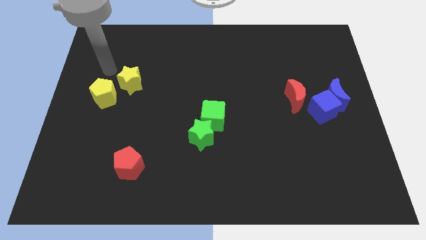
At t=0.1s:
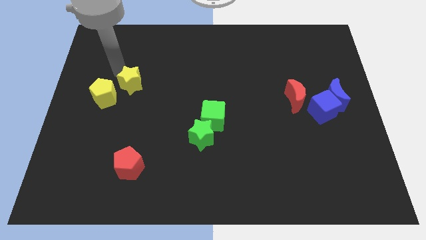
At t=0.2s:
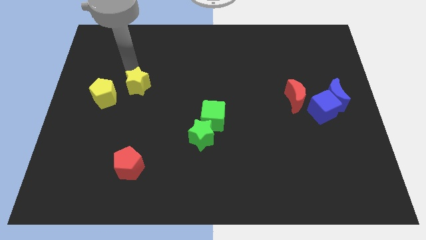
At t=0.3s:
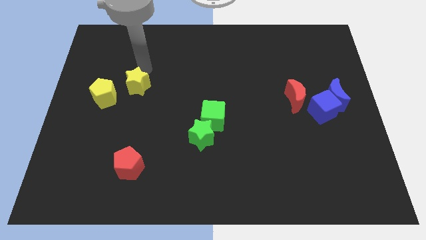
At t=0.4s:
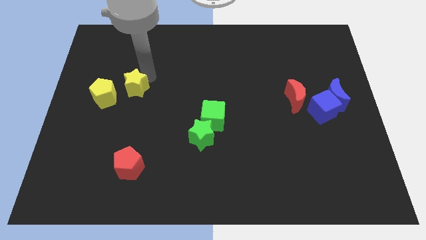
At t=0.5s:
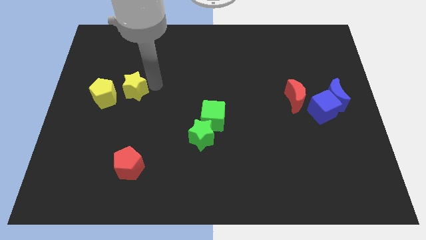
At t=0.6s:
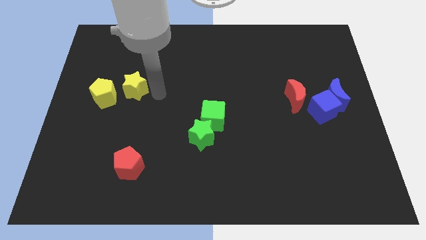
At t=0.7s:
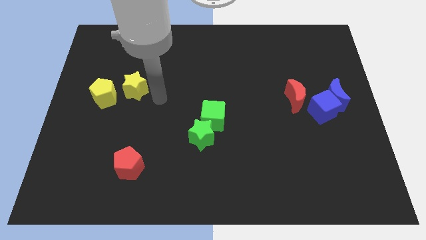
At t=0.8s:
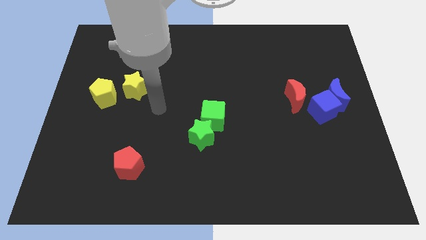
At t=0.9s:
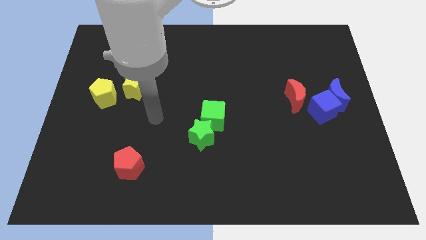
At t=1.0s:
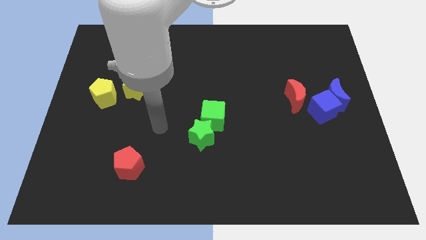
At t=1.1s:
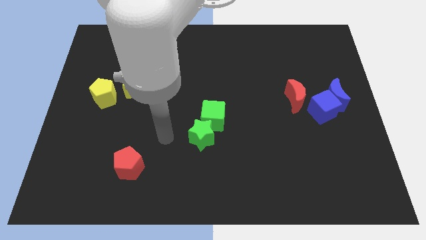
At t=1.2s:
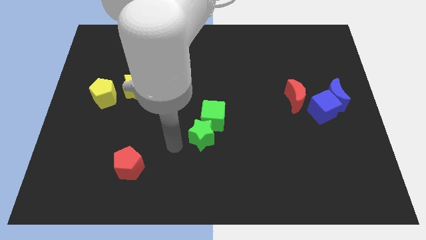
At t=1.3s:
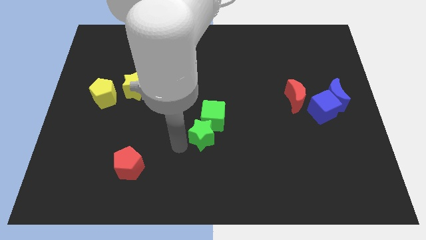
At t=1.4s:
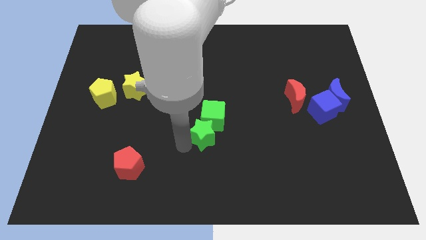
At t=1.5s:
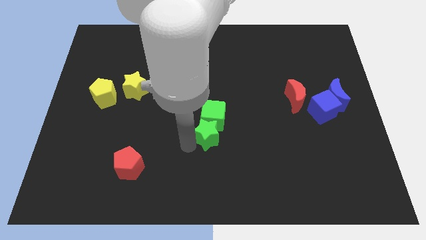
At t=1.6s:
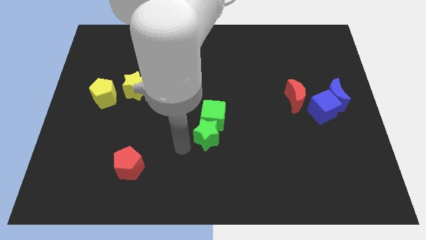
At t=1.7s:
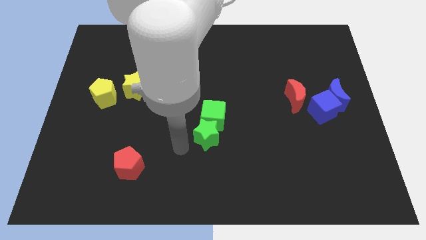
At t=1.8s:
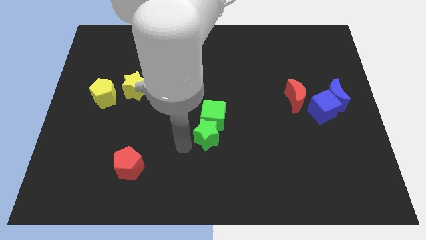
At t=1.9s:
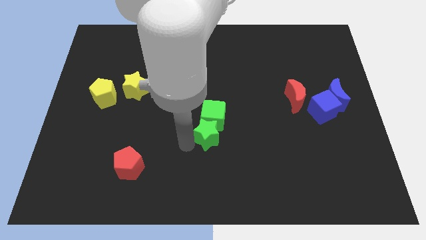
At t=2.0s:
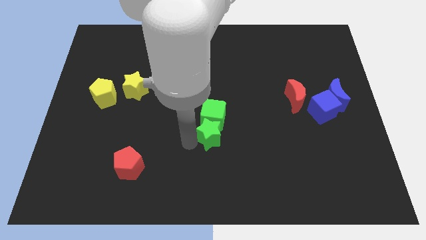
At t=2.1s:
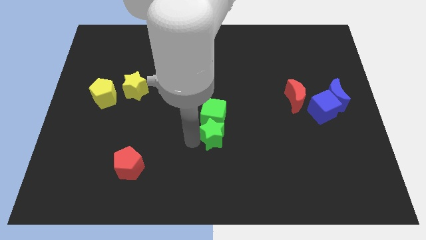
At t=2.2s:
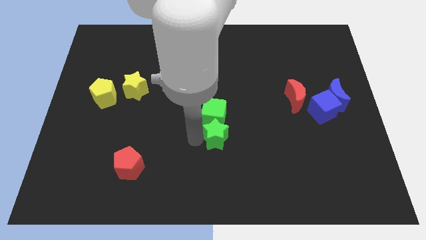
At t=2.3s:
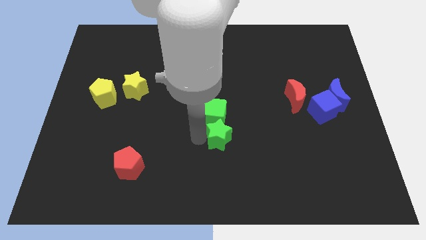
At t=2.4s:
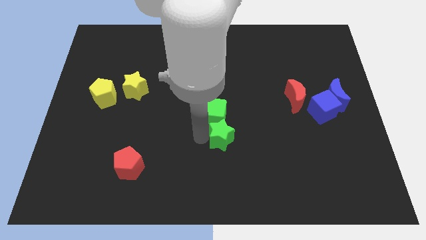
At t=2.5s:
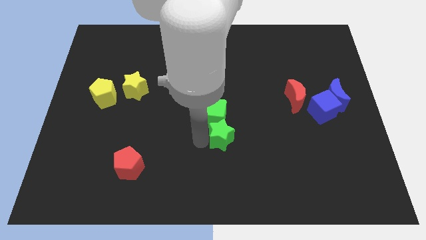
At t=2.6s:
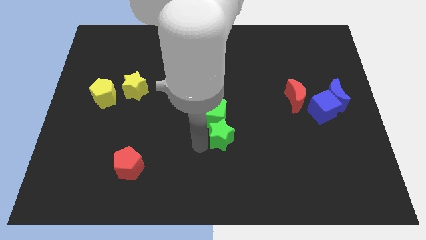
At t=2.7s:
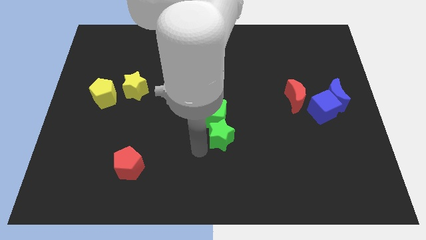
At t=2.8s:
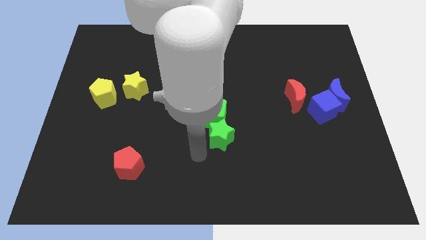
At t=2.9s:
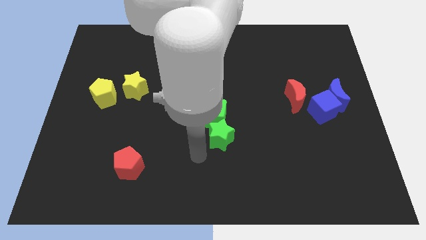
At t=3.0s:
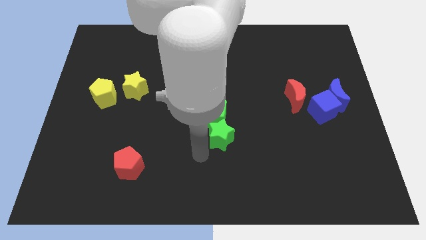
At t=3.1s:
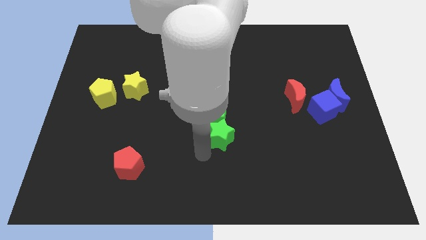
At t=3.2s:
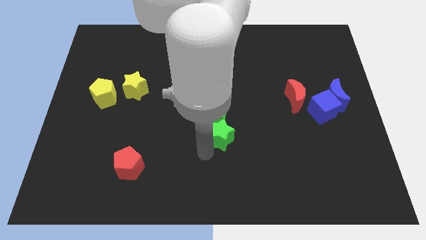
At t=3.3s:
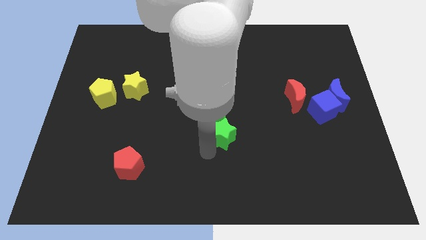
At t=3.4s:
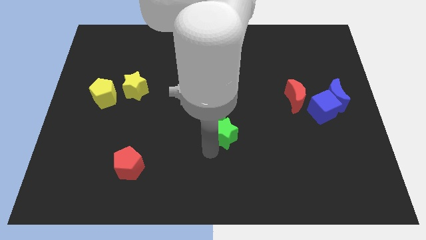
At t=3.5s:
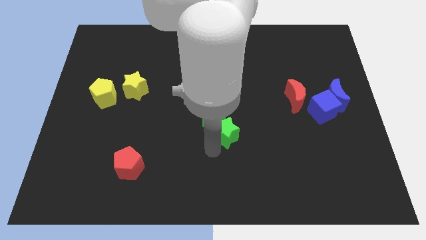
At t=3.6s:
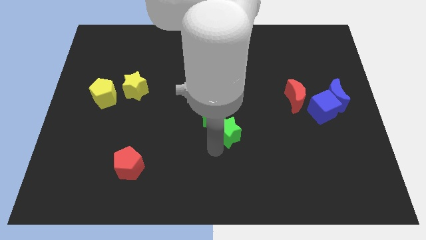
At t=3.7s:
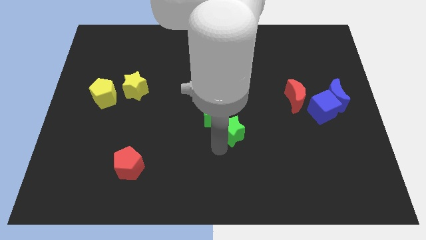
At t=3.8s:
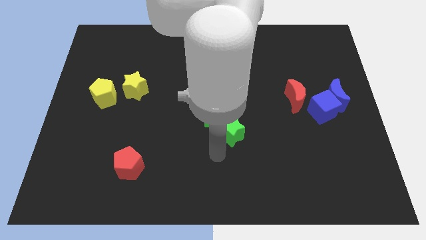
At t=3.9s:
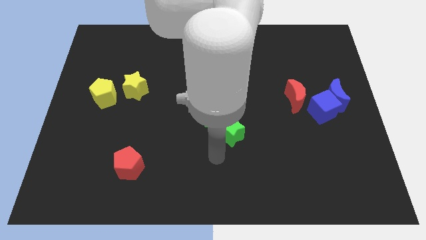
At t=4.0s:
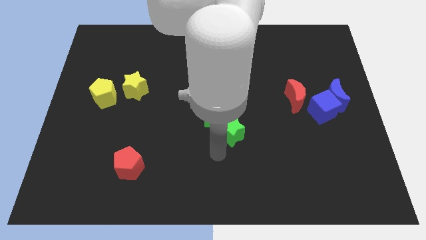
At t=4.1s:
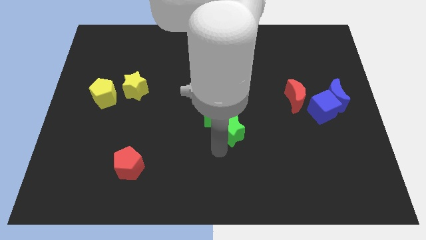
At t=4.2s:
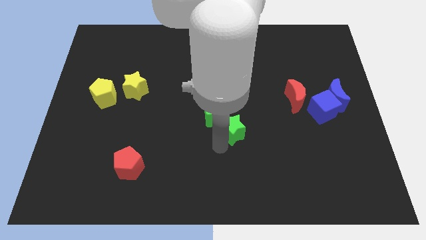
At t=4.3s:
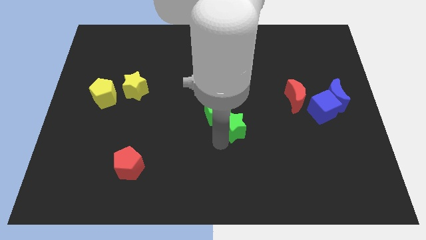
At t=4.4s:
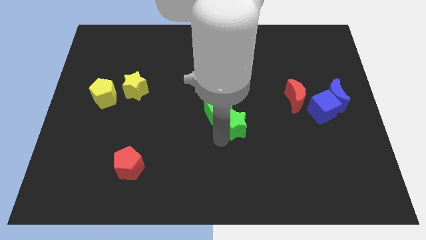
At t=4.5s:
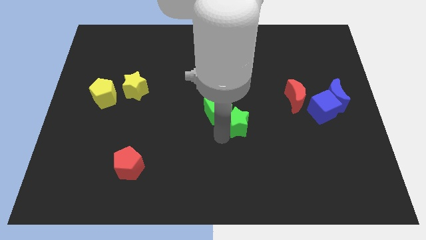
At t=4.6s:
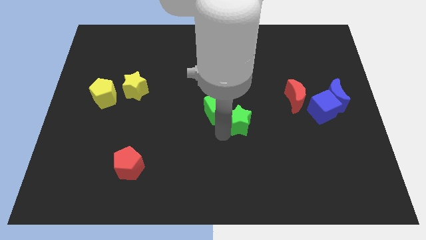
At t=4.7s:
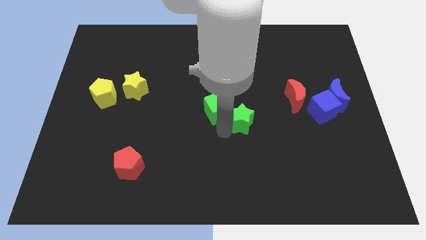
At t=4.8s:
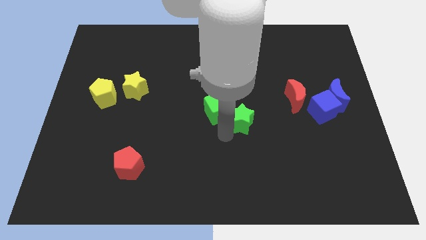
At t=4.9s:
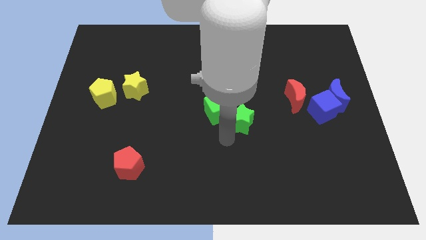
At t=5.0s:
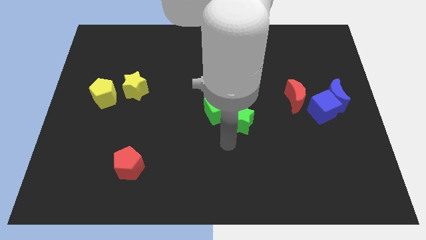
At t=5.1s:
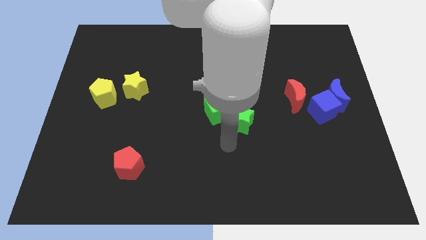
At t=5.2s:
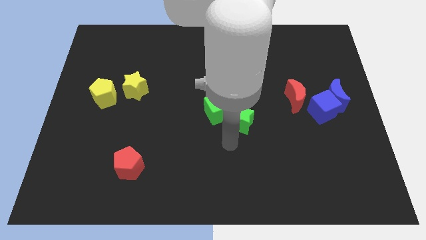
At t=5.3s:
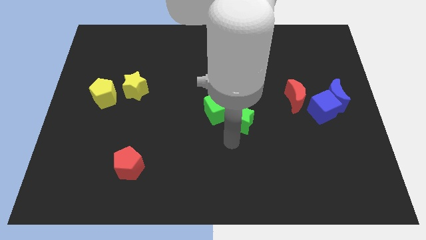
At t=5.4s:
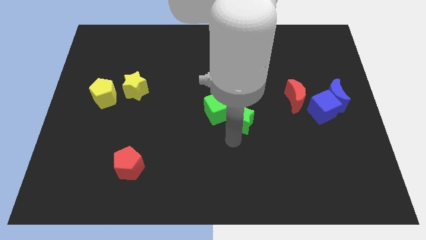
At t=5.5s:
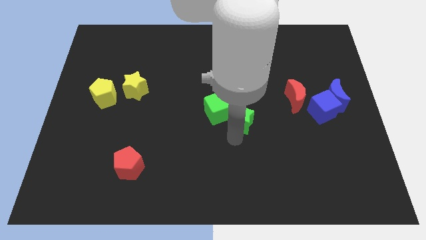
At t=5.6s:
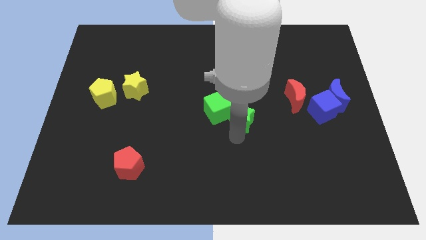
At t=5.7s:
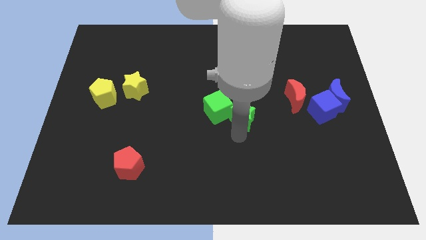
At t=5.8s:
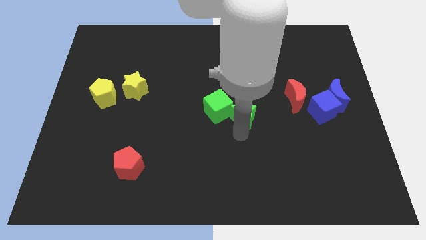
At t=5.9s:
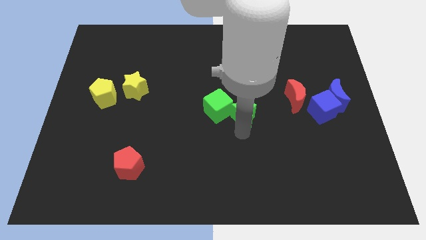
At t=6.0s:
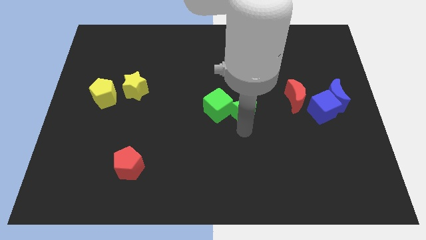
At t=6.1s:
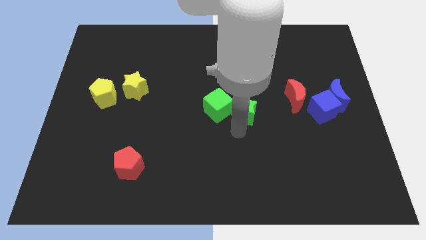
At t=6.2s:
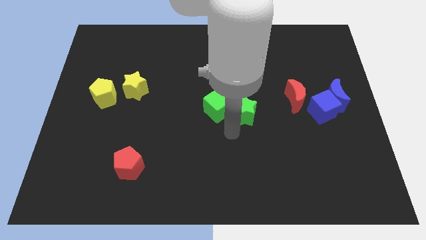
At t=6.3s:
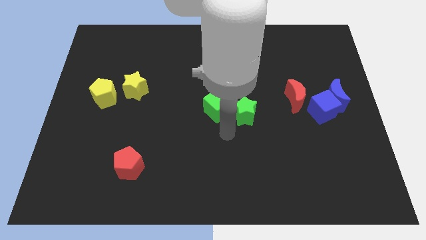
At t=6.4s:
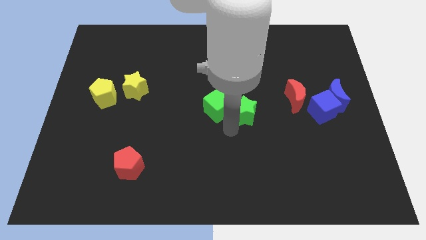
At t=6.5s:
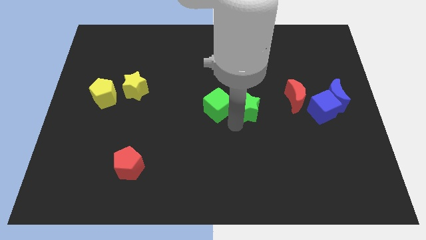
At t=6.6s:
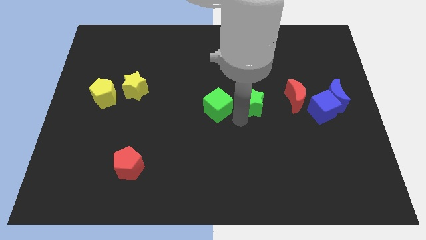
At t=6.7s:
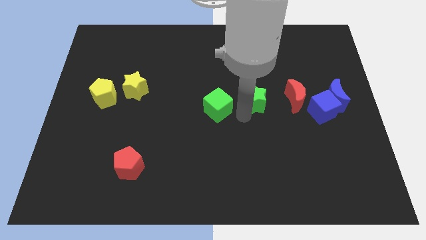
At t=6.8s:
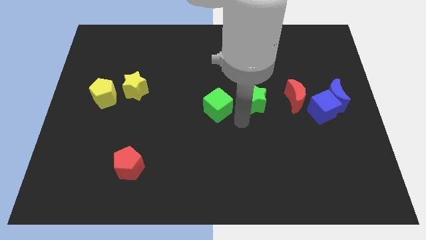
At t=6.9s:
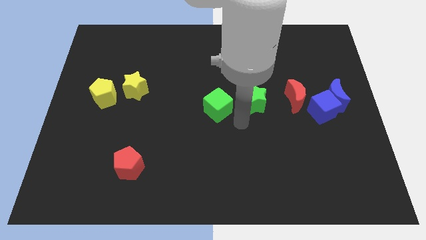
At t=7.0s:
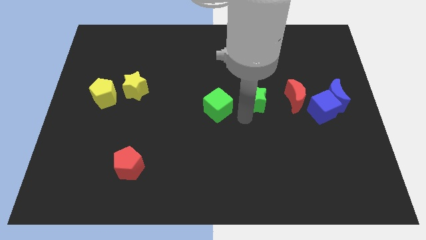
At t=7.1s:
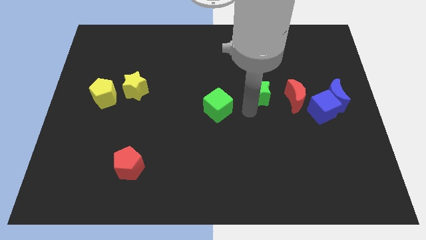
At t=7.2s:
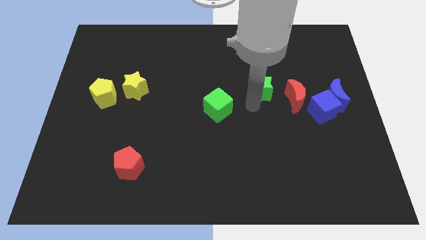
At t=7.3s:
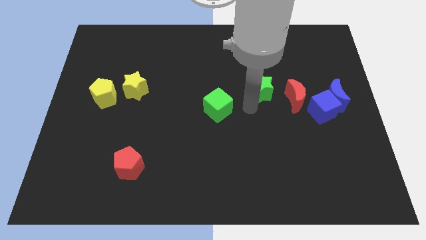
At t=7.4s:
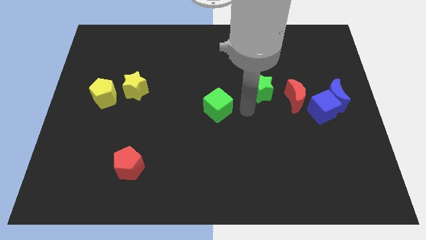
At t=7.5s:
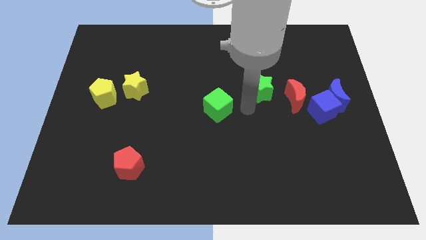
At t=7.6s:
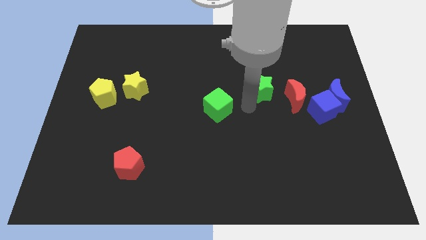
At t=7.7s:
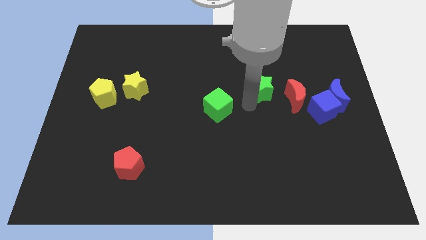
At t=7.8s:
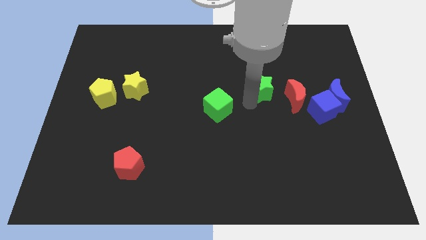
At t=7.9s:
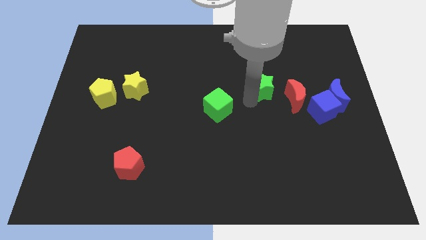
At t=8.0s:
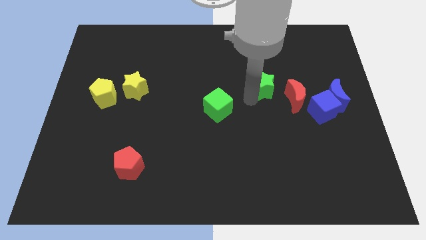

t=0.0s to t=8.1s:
move the green star up and then right
